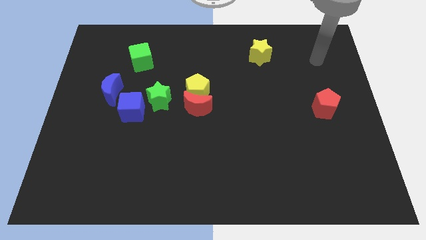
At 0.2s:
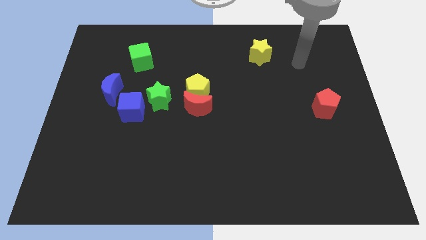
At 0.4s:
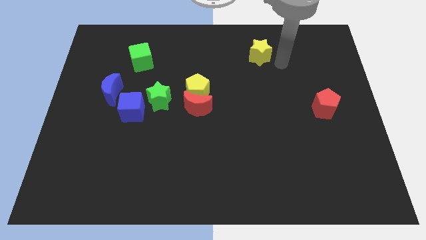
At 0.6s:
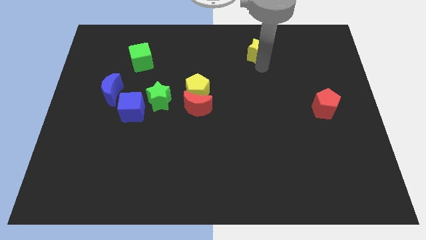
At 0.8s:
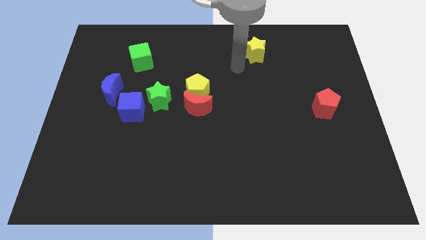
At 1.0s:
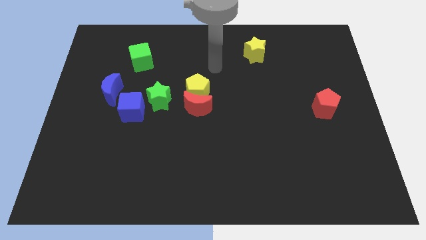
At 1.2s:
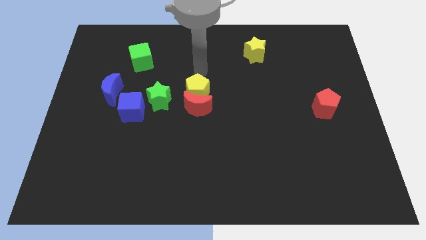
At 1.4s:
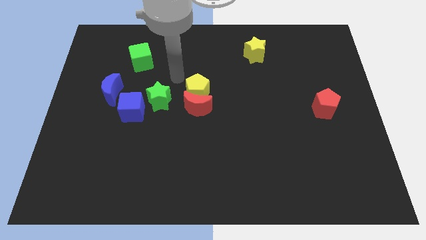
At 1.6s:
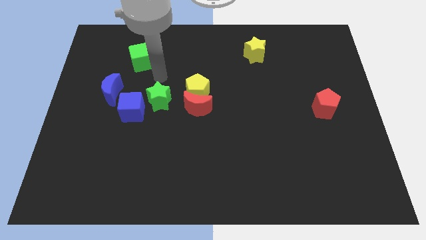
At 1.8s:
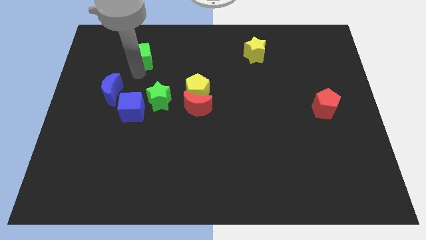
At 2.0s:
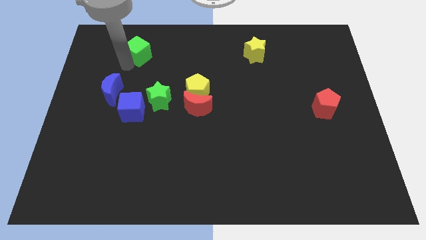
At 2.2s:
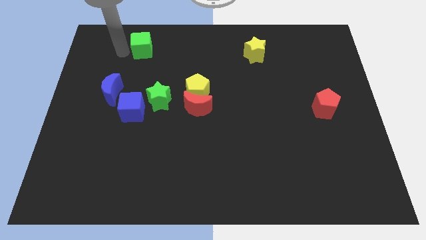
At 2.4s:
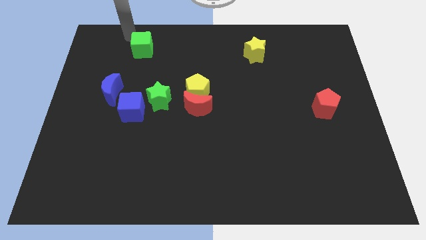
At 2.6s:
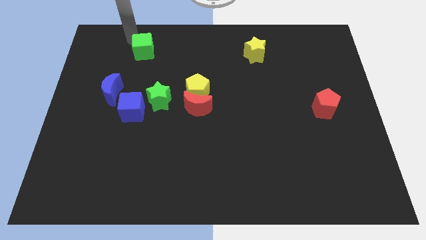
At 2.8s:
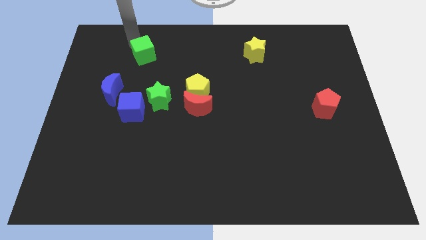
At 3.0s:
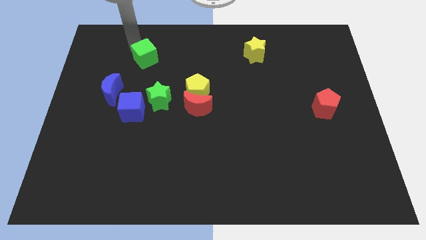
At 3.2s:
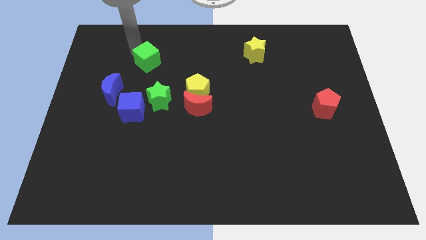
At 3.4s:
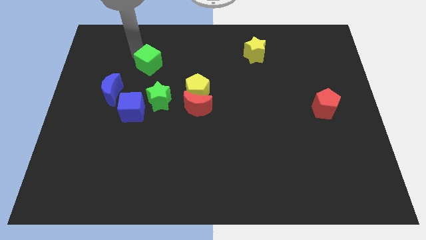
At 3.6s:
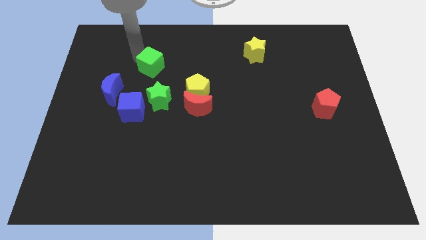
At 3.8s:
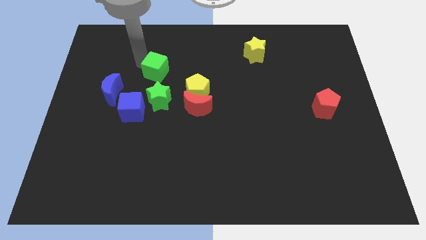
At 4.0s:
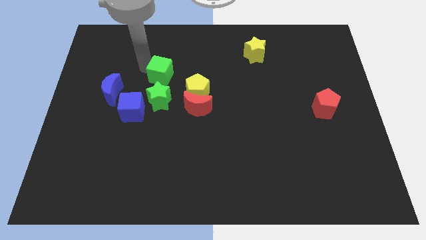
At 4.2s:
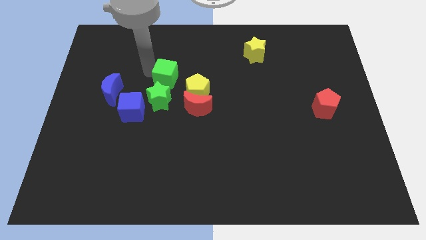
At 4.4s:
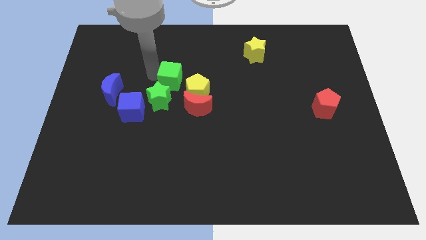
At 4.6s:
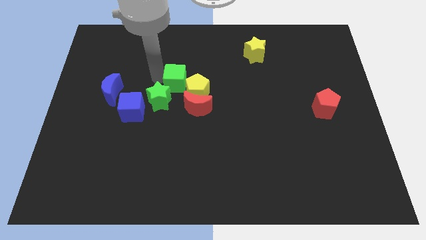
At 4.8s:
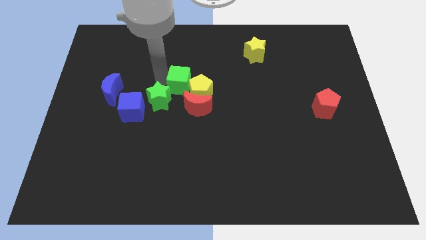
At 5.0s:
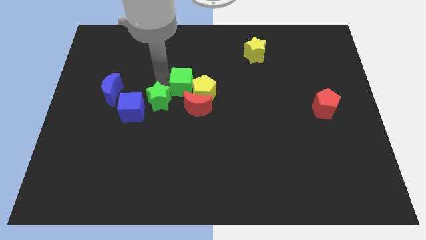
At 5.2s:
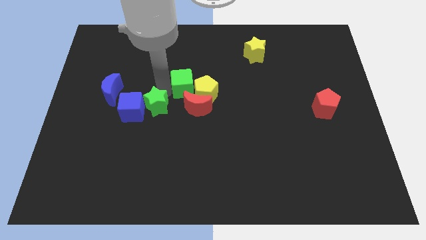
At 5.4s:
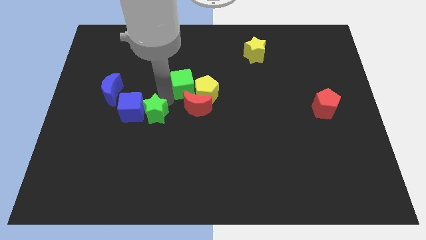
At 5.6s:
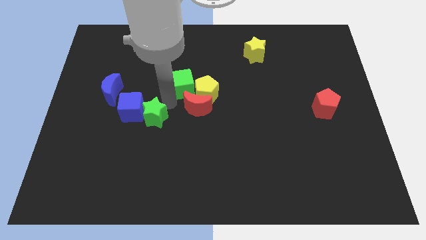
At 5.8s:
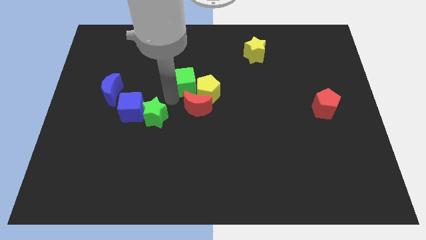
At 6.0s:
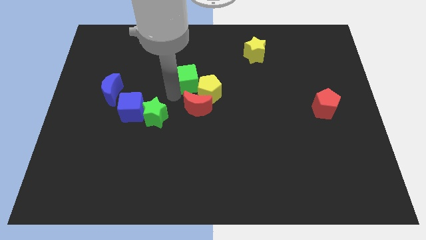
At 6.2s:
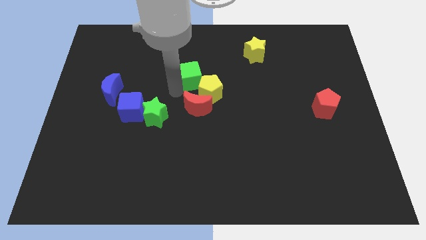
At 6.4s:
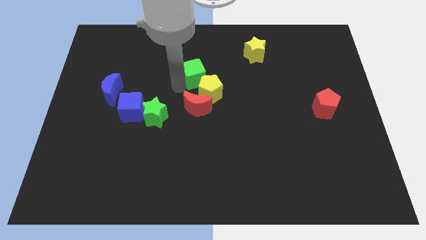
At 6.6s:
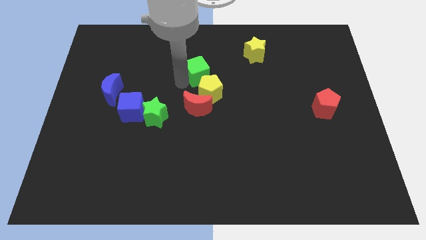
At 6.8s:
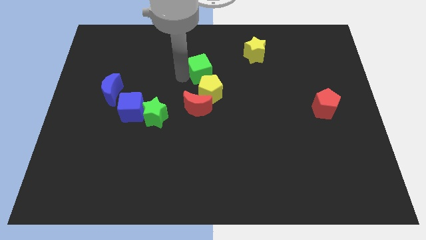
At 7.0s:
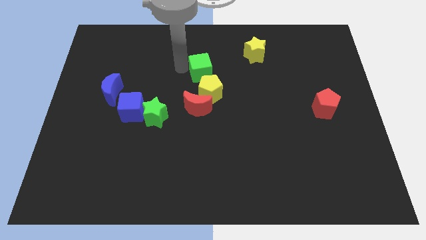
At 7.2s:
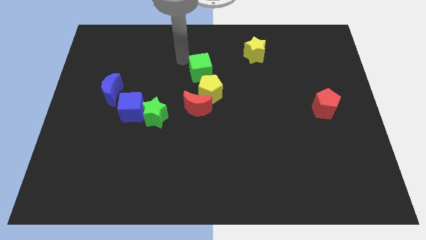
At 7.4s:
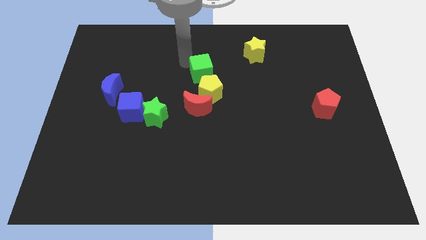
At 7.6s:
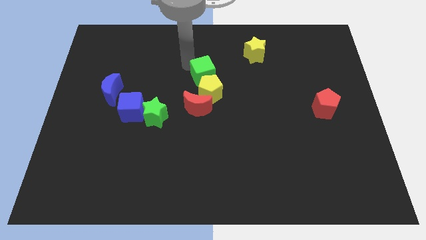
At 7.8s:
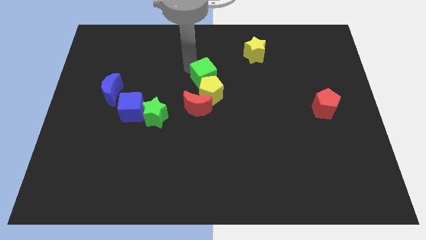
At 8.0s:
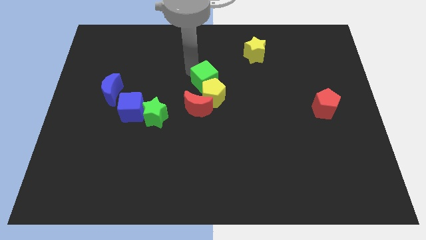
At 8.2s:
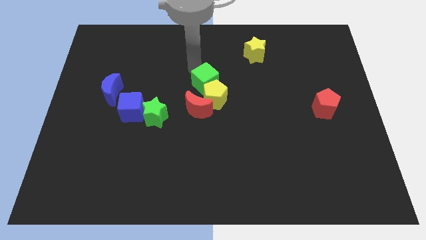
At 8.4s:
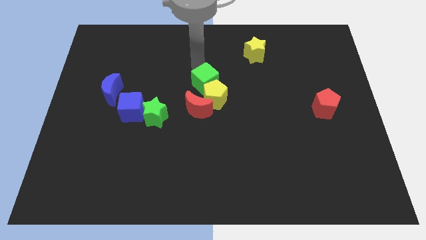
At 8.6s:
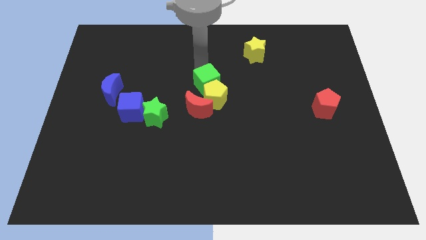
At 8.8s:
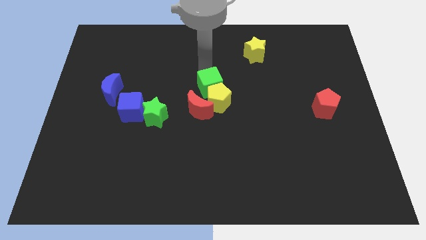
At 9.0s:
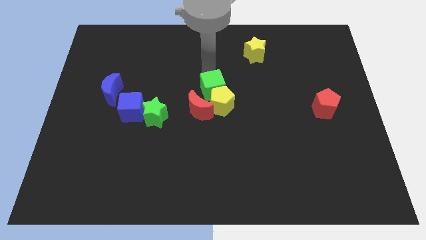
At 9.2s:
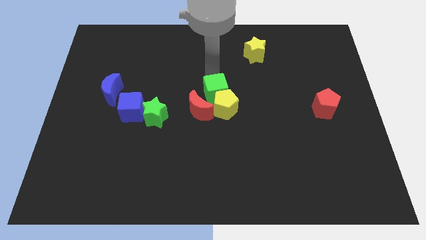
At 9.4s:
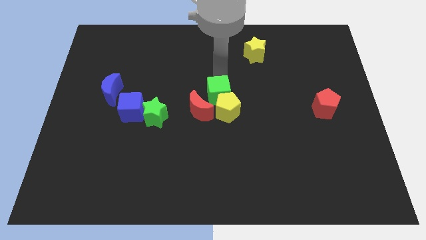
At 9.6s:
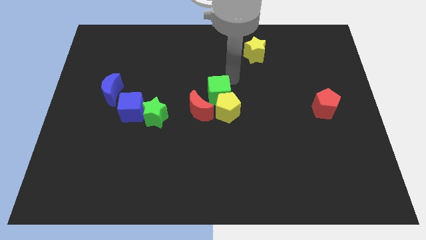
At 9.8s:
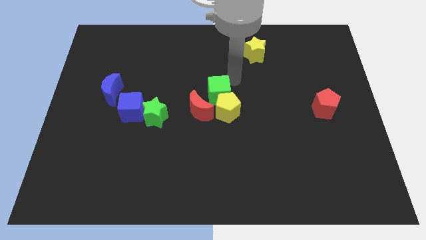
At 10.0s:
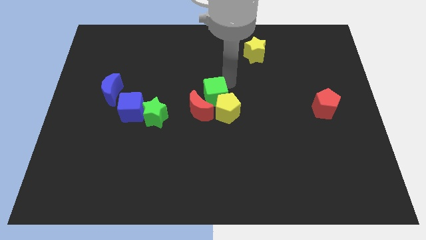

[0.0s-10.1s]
put the green cube towards the red moon

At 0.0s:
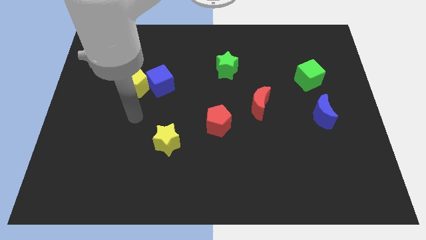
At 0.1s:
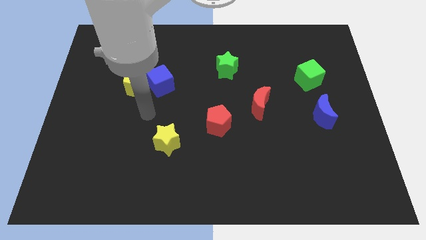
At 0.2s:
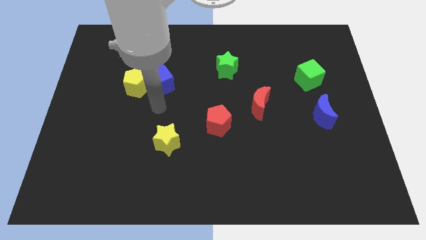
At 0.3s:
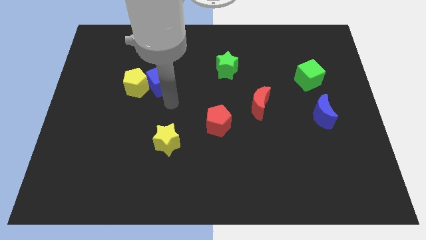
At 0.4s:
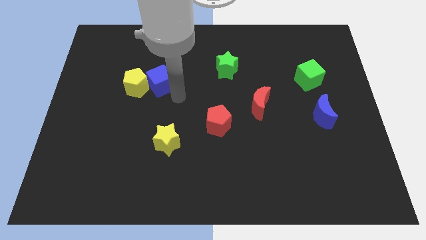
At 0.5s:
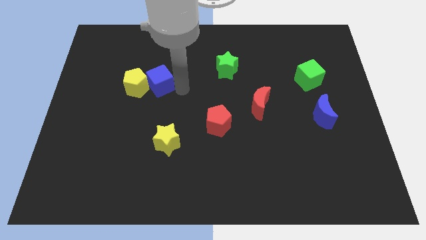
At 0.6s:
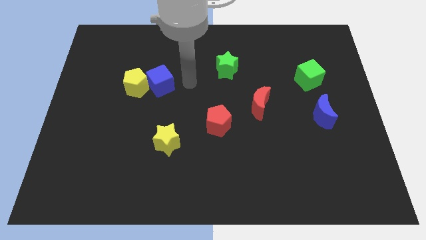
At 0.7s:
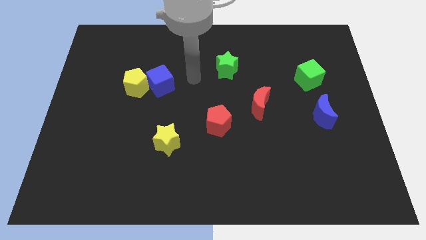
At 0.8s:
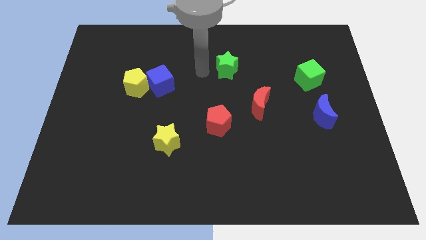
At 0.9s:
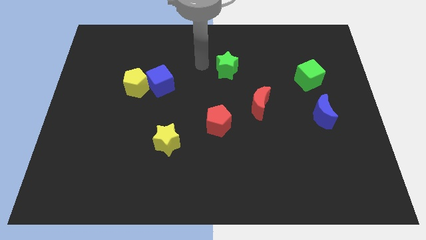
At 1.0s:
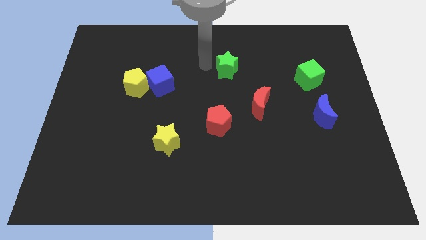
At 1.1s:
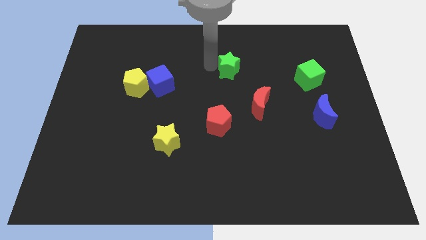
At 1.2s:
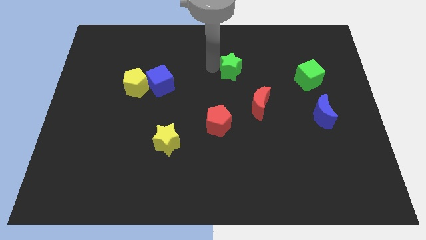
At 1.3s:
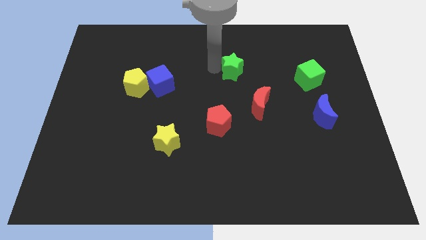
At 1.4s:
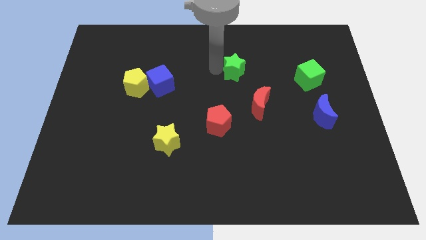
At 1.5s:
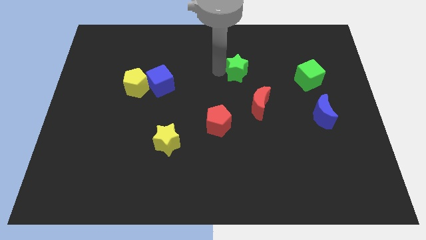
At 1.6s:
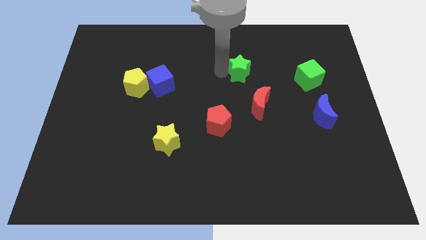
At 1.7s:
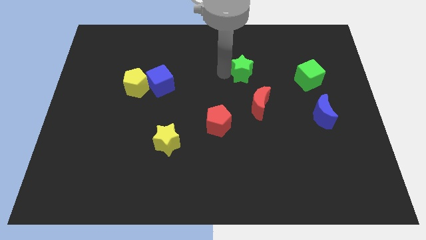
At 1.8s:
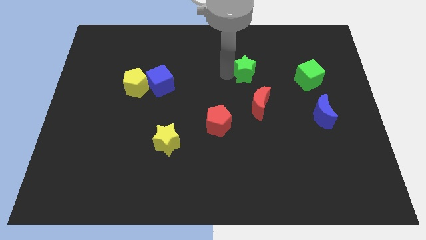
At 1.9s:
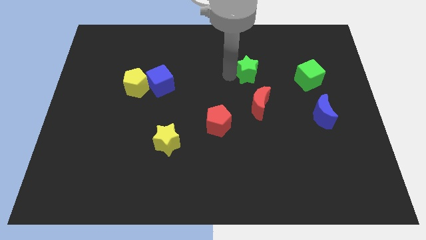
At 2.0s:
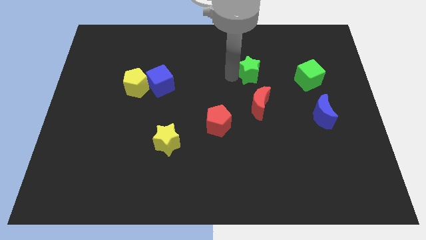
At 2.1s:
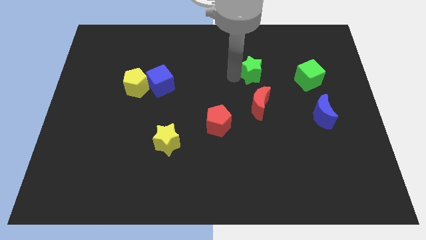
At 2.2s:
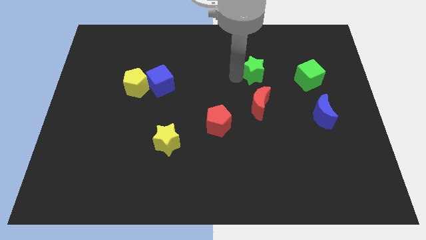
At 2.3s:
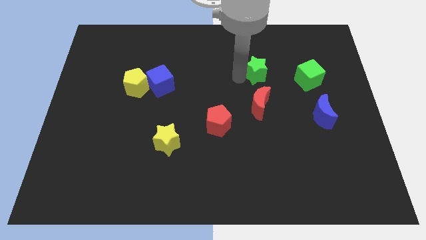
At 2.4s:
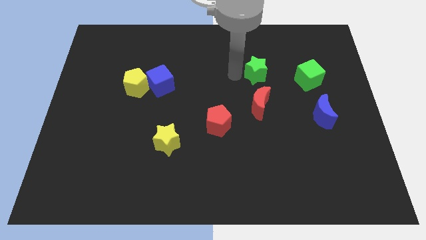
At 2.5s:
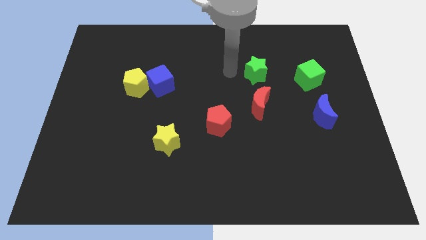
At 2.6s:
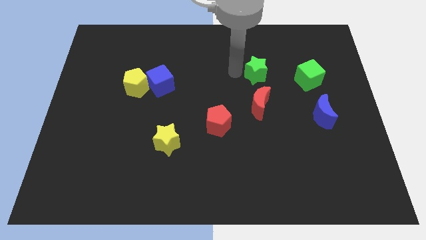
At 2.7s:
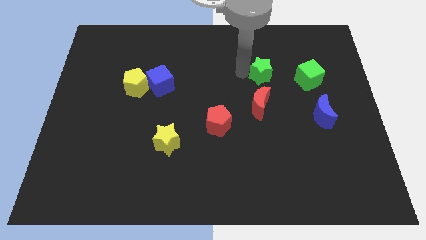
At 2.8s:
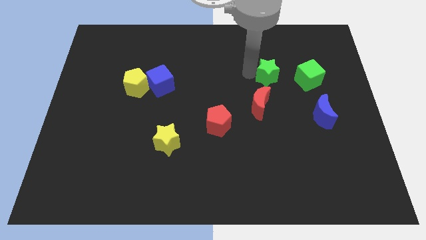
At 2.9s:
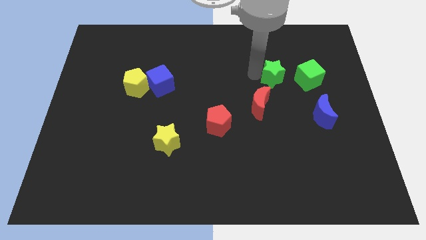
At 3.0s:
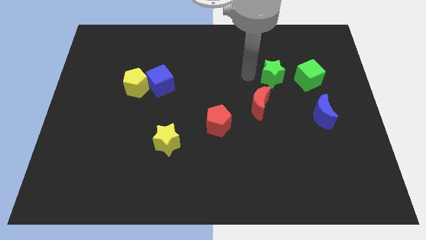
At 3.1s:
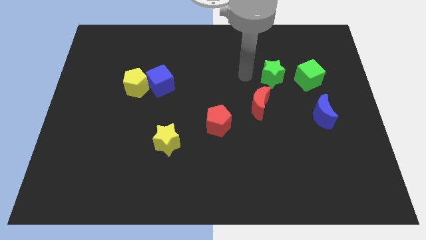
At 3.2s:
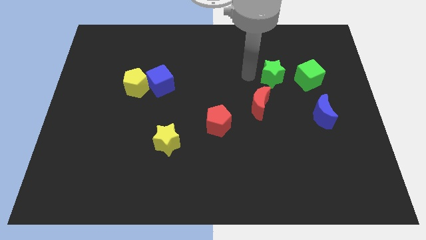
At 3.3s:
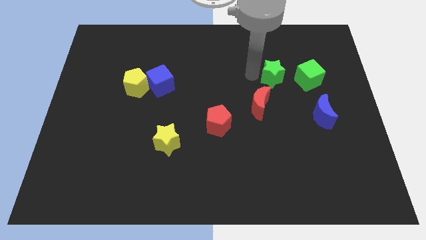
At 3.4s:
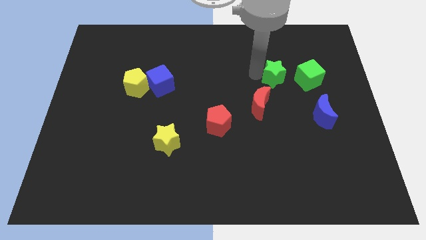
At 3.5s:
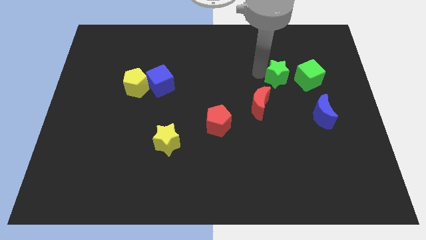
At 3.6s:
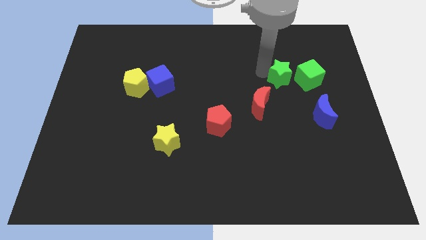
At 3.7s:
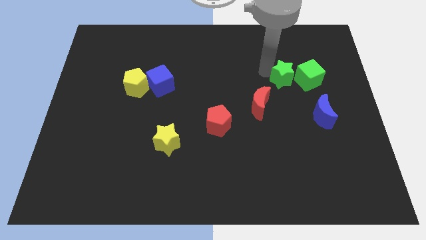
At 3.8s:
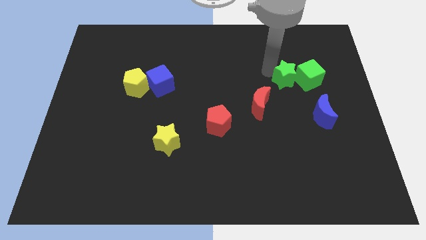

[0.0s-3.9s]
push the green star close to the green cube
